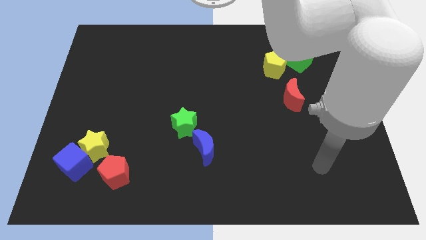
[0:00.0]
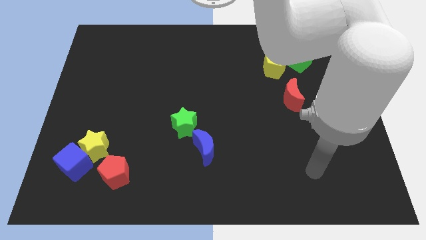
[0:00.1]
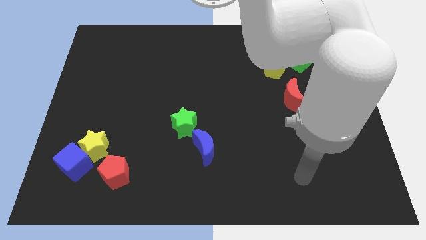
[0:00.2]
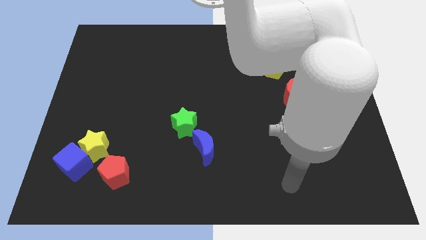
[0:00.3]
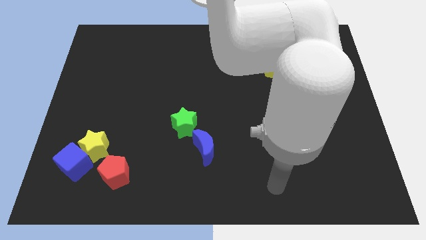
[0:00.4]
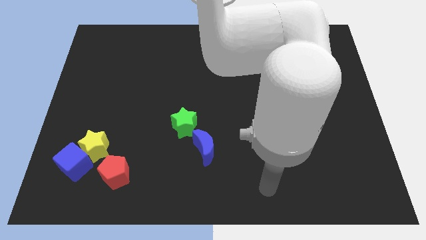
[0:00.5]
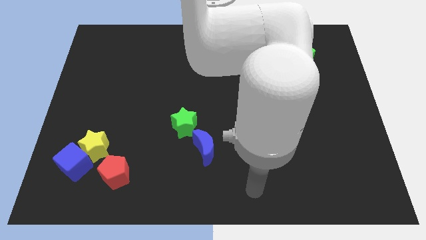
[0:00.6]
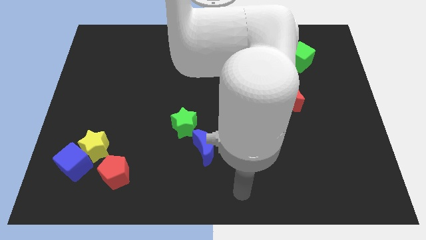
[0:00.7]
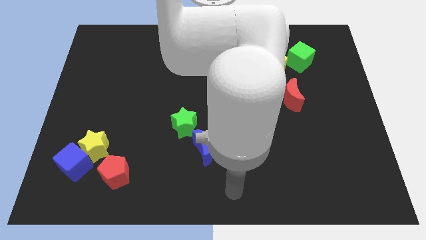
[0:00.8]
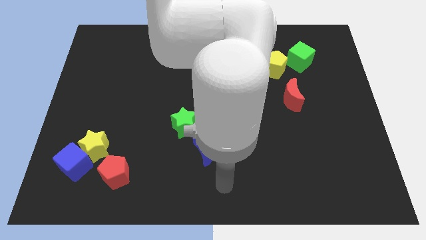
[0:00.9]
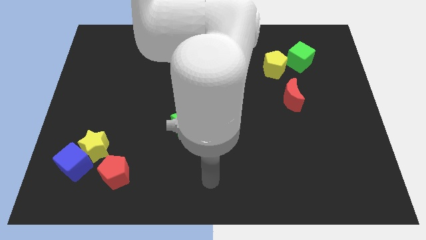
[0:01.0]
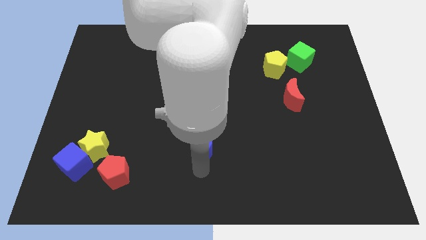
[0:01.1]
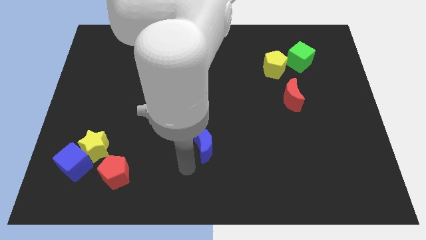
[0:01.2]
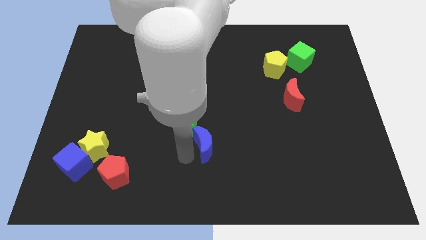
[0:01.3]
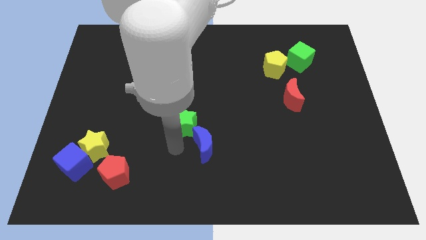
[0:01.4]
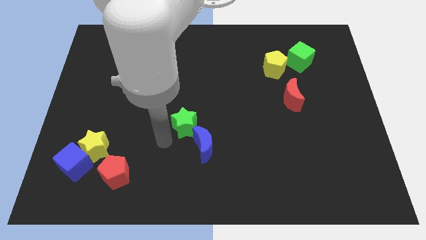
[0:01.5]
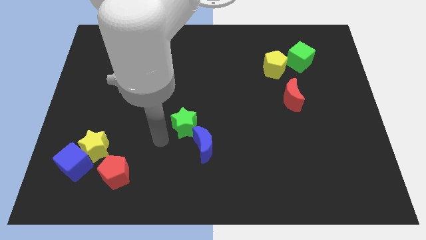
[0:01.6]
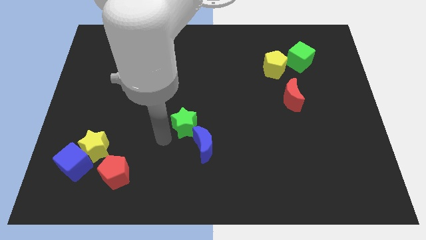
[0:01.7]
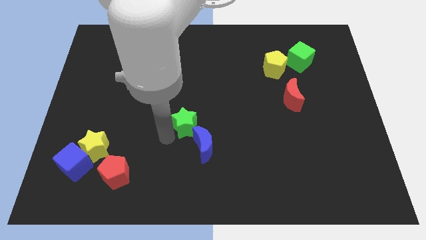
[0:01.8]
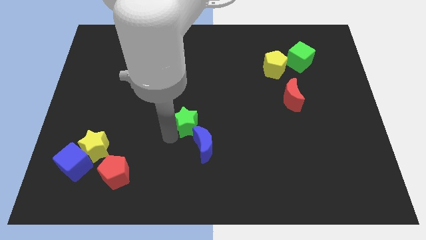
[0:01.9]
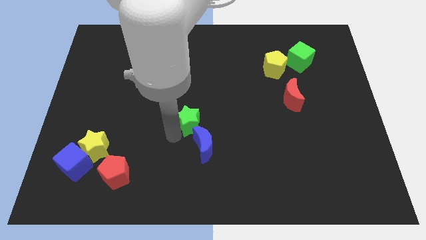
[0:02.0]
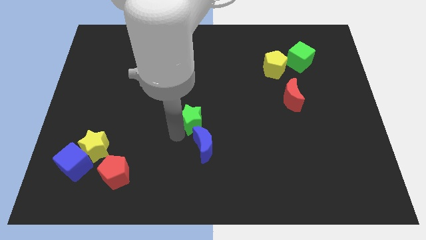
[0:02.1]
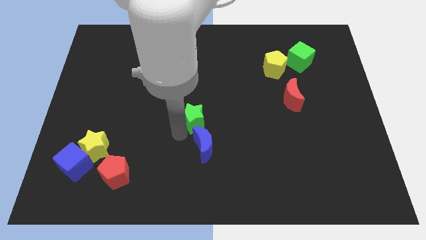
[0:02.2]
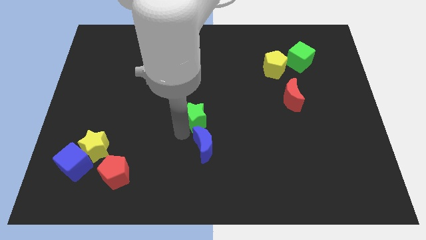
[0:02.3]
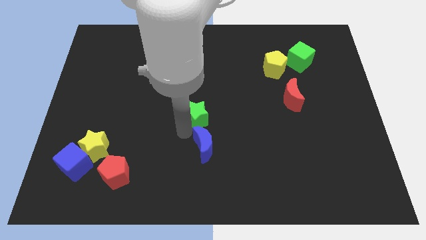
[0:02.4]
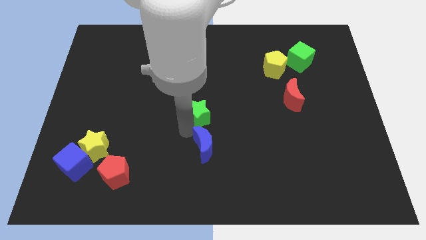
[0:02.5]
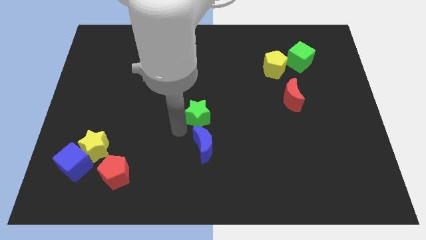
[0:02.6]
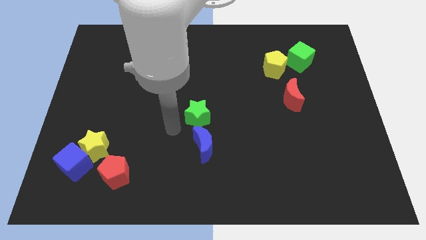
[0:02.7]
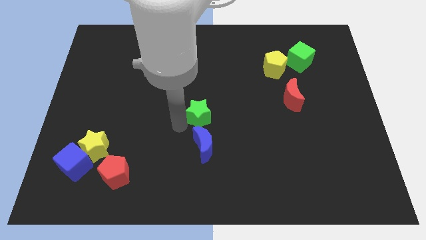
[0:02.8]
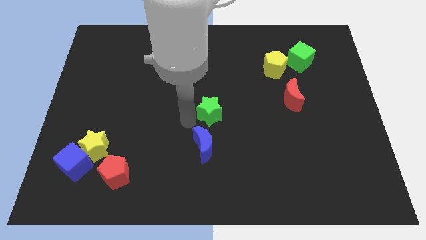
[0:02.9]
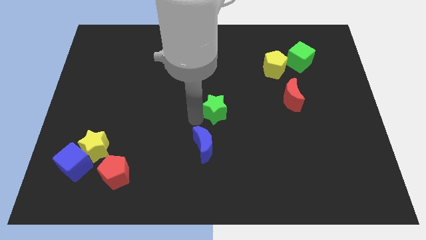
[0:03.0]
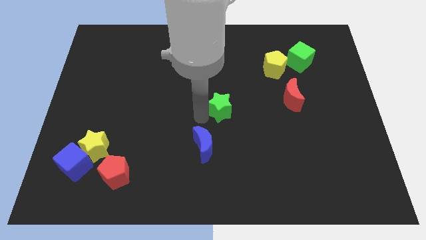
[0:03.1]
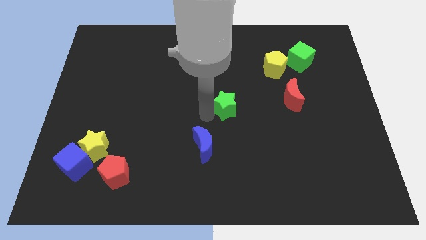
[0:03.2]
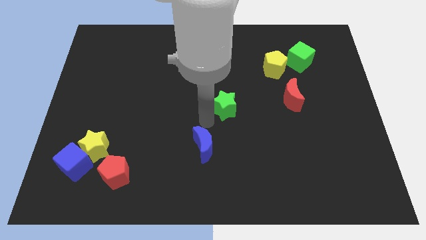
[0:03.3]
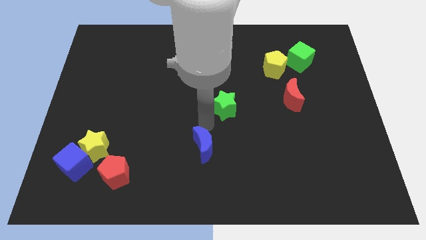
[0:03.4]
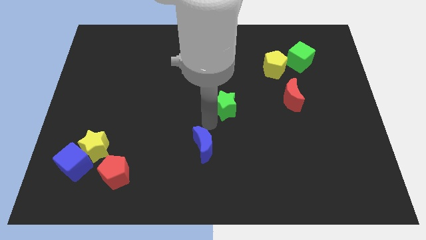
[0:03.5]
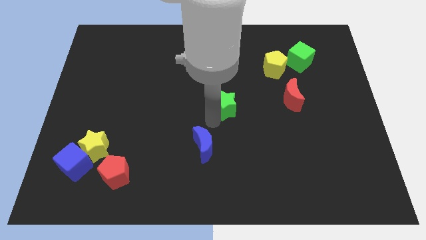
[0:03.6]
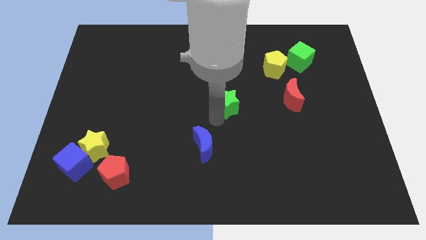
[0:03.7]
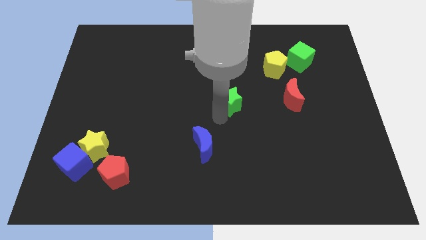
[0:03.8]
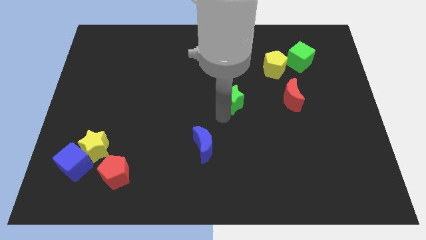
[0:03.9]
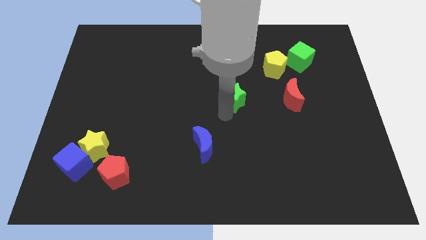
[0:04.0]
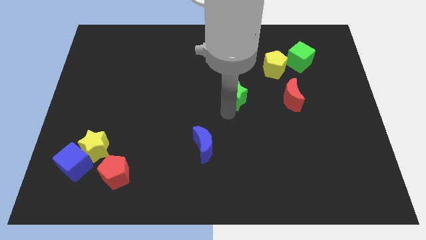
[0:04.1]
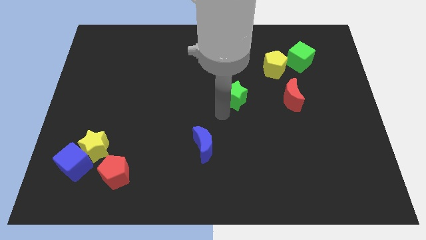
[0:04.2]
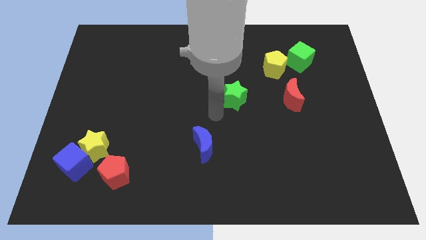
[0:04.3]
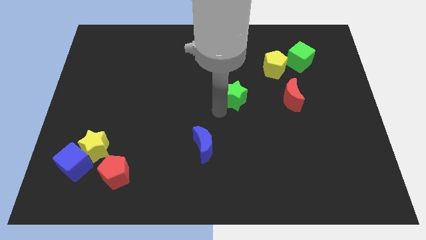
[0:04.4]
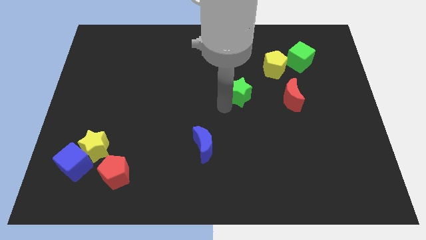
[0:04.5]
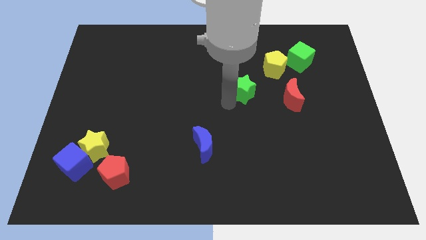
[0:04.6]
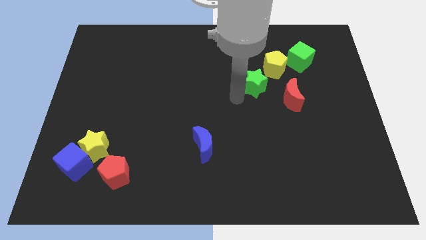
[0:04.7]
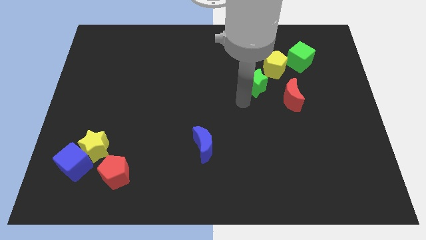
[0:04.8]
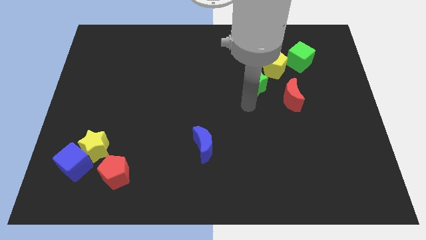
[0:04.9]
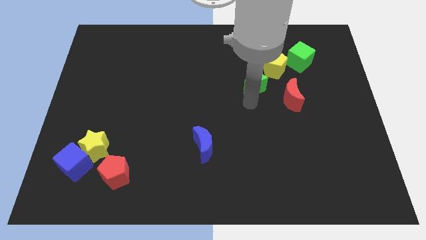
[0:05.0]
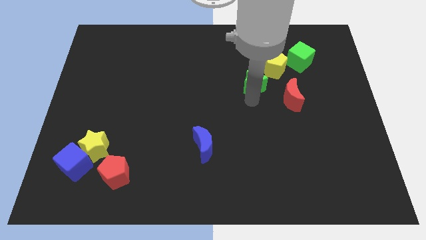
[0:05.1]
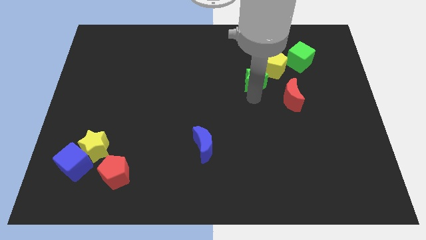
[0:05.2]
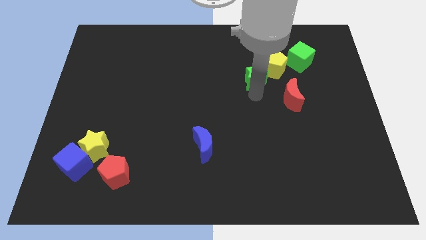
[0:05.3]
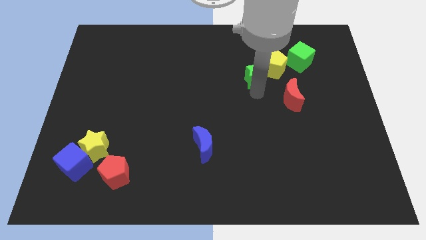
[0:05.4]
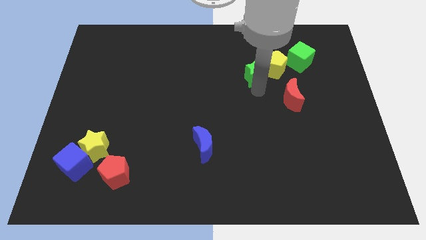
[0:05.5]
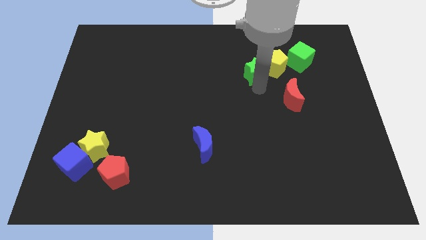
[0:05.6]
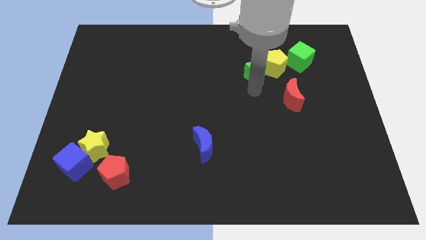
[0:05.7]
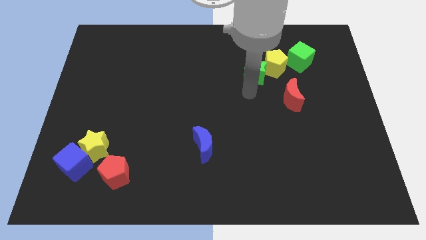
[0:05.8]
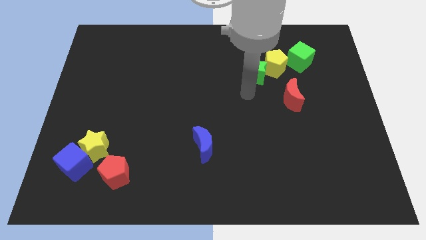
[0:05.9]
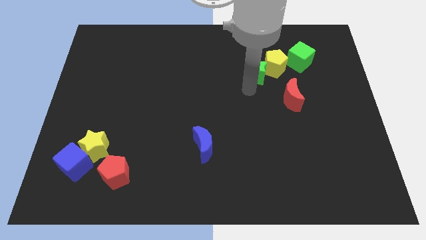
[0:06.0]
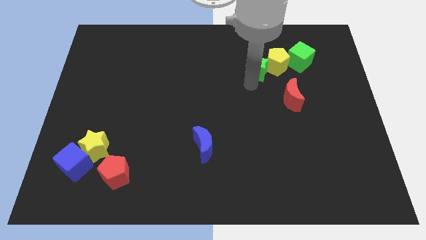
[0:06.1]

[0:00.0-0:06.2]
push the green star left of the green cube

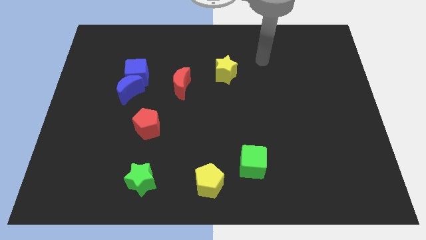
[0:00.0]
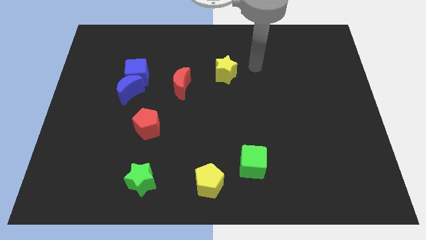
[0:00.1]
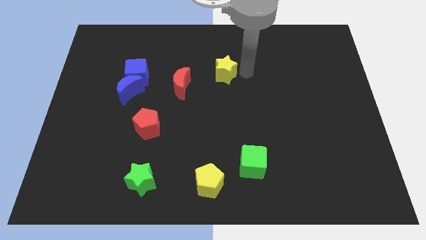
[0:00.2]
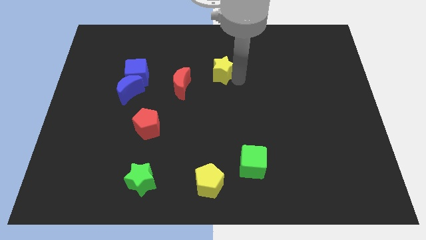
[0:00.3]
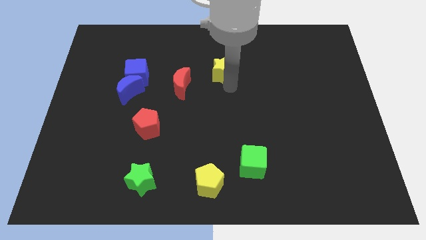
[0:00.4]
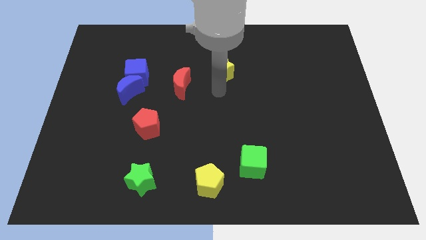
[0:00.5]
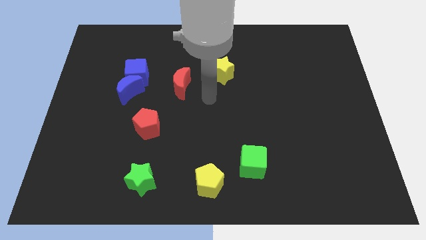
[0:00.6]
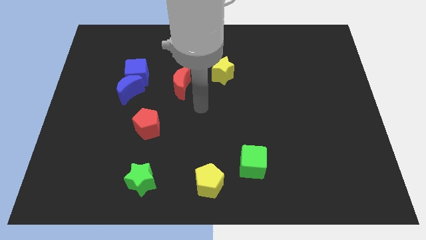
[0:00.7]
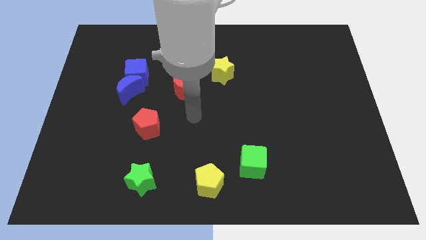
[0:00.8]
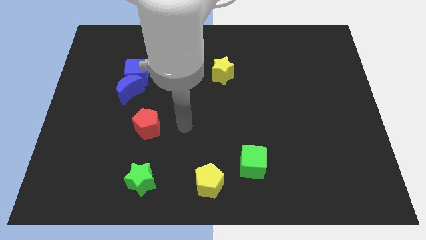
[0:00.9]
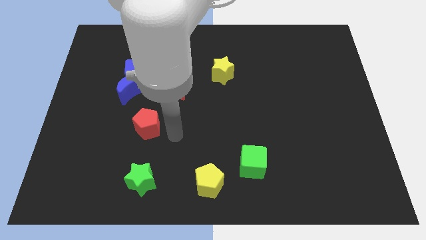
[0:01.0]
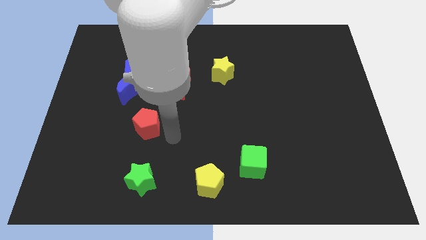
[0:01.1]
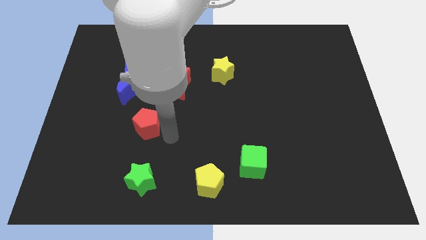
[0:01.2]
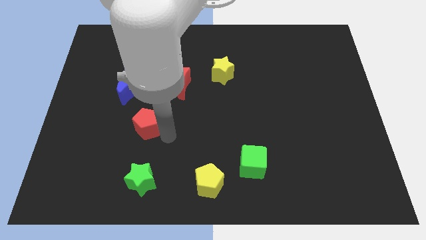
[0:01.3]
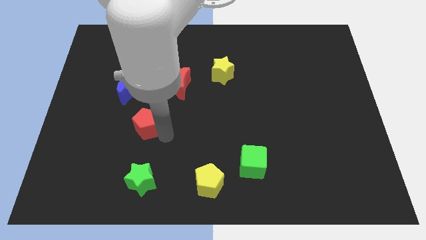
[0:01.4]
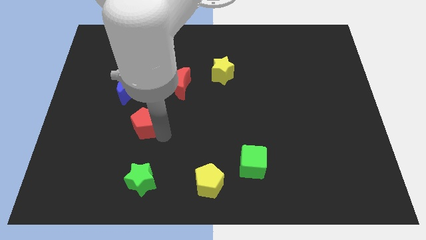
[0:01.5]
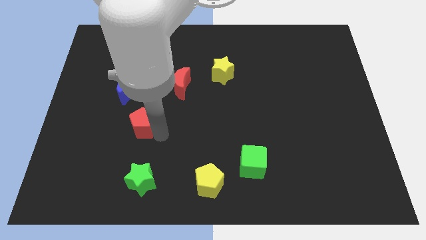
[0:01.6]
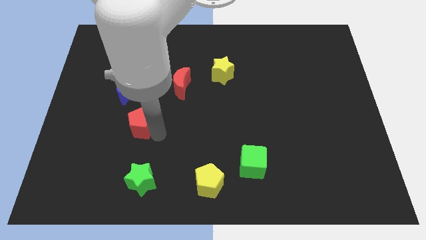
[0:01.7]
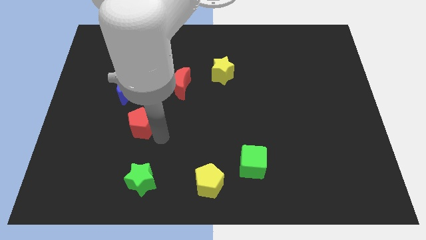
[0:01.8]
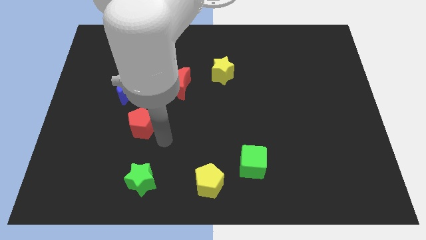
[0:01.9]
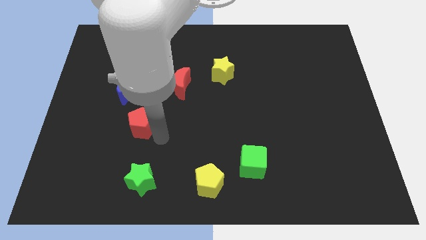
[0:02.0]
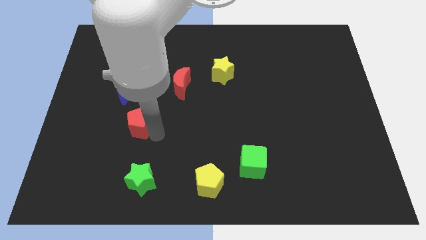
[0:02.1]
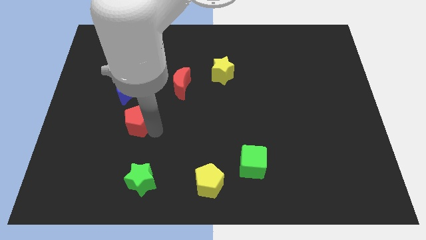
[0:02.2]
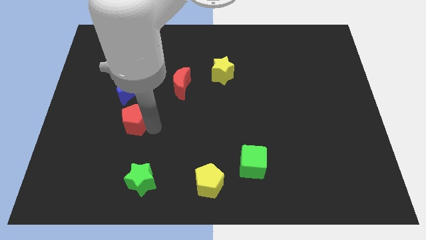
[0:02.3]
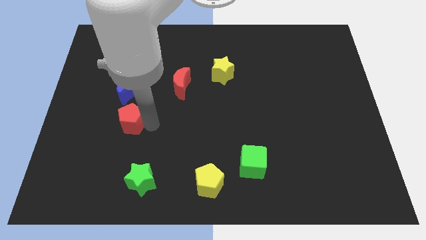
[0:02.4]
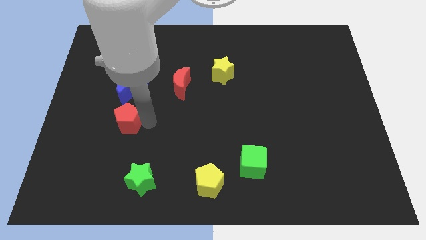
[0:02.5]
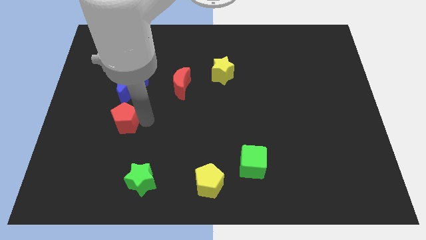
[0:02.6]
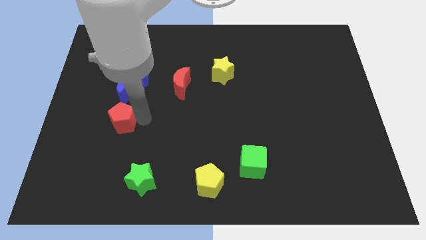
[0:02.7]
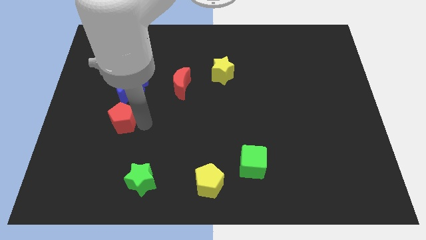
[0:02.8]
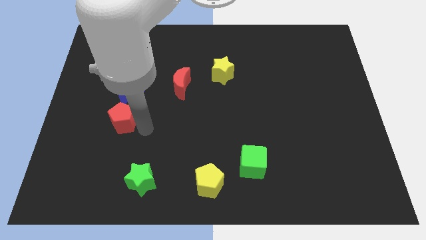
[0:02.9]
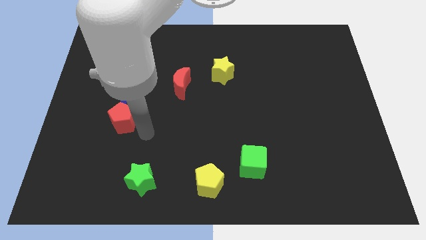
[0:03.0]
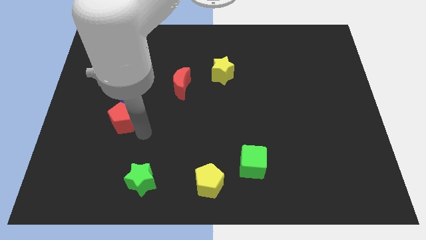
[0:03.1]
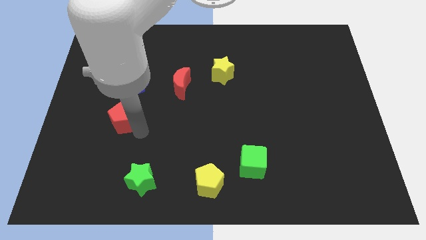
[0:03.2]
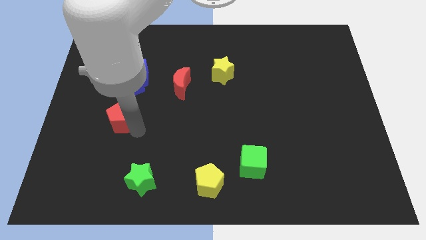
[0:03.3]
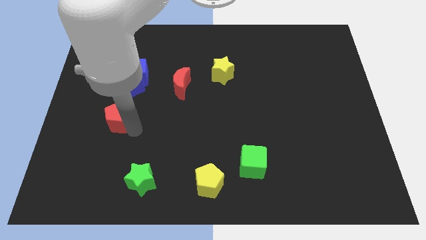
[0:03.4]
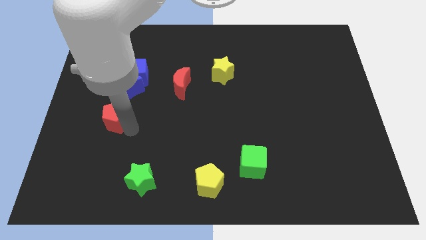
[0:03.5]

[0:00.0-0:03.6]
slide the red pentagon to the bottom left side of the blue moon
